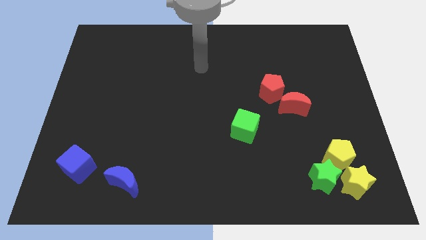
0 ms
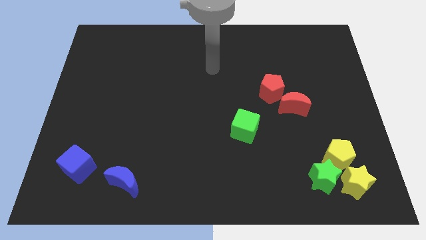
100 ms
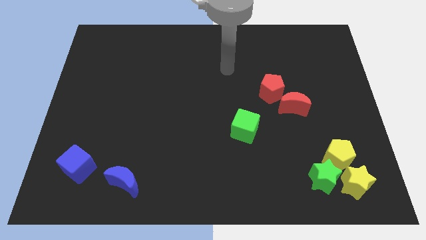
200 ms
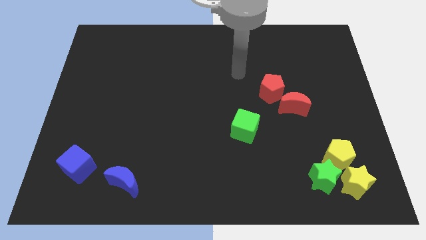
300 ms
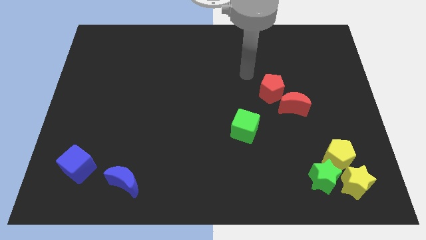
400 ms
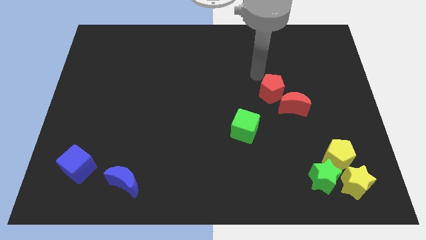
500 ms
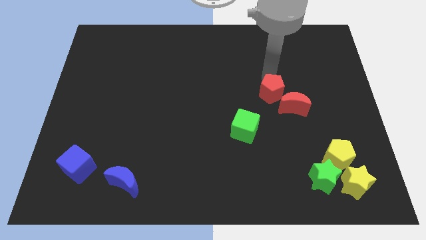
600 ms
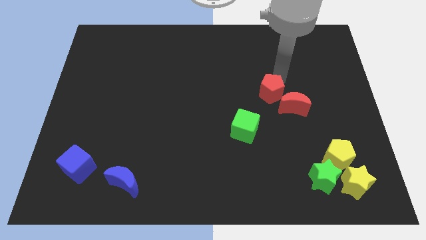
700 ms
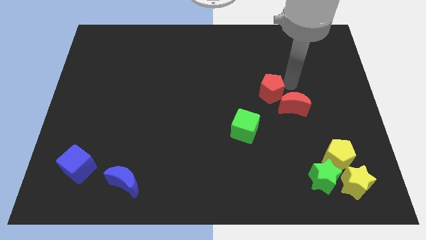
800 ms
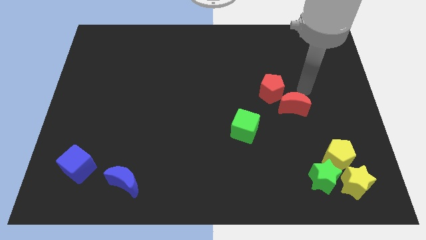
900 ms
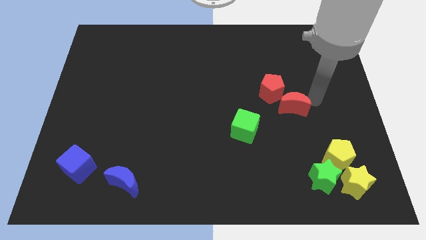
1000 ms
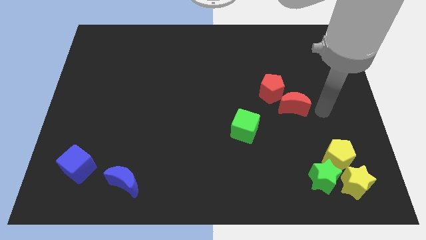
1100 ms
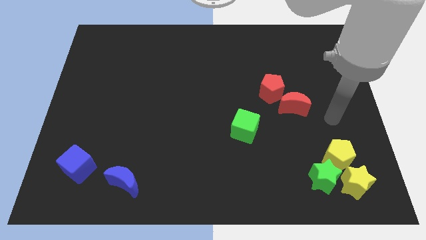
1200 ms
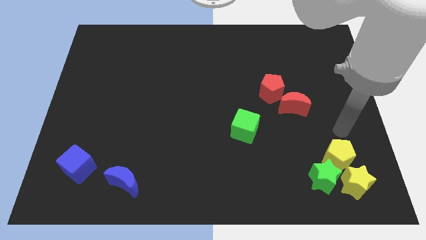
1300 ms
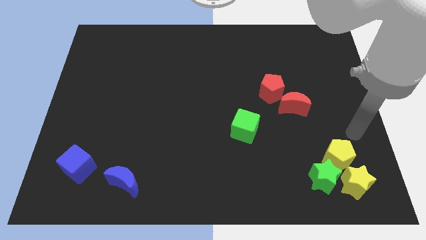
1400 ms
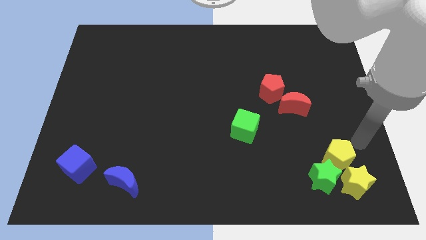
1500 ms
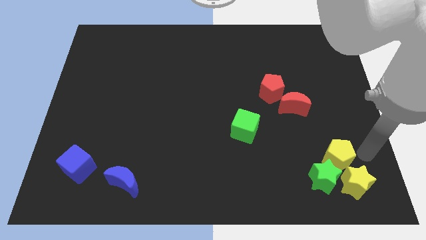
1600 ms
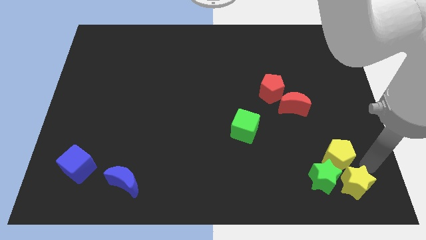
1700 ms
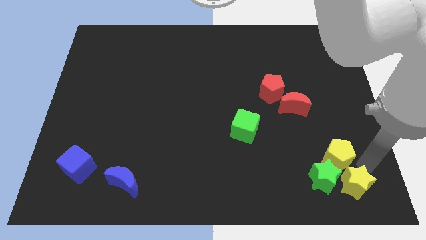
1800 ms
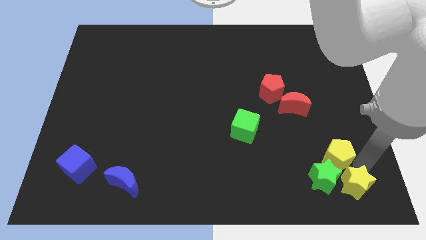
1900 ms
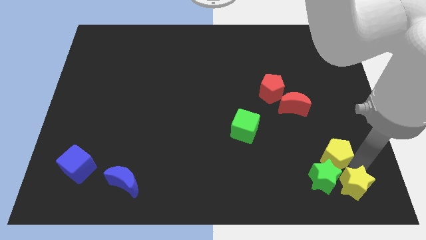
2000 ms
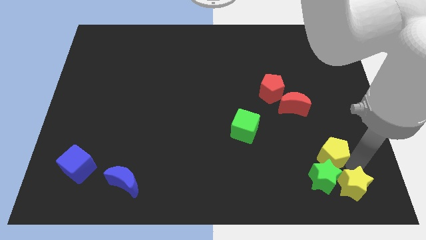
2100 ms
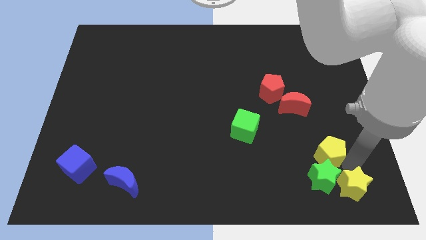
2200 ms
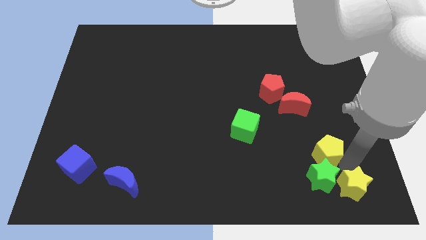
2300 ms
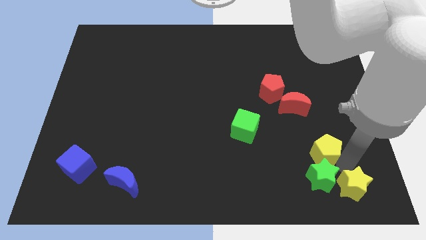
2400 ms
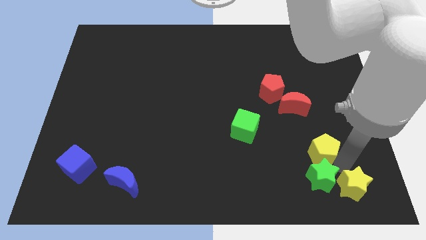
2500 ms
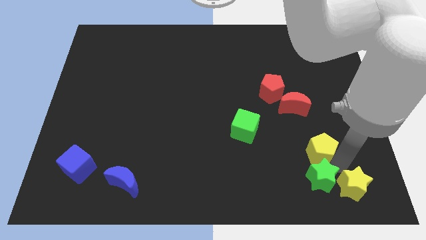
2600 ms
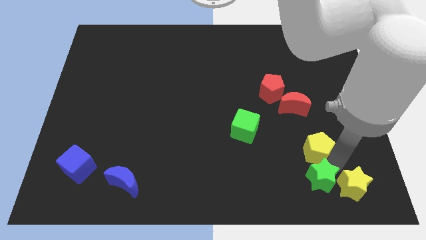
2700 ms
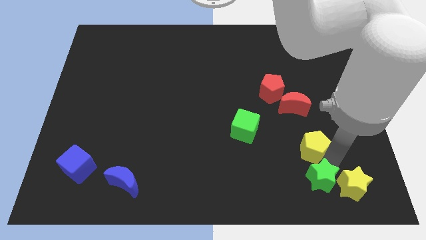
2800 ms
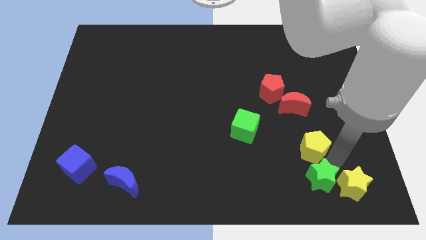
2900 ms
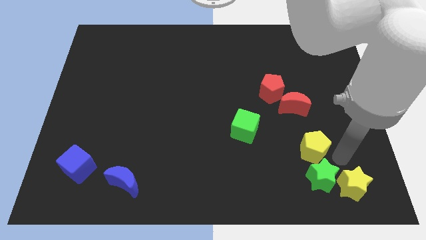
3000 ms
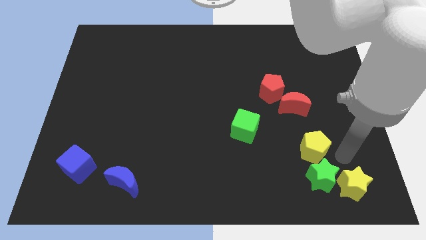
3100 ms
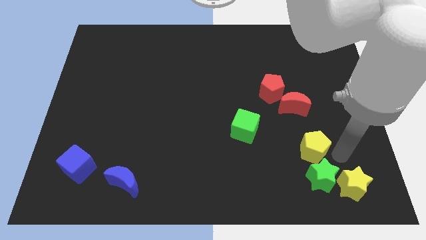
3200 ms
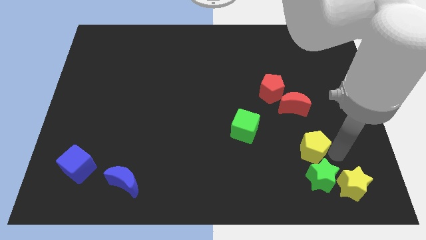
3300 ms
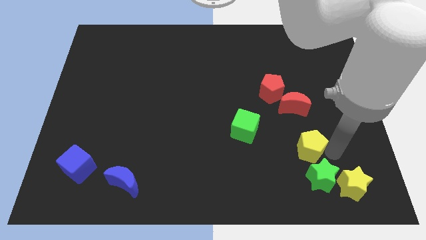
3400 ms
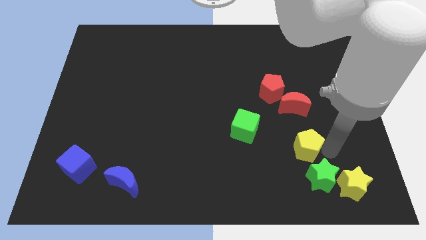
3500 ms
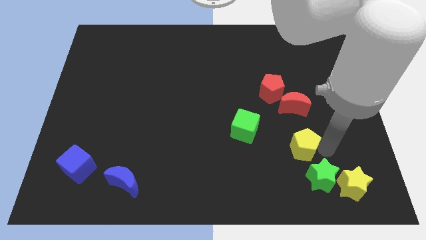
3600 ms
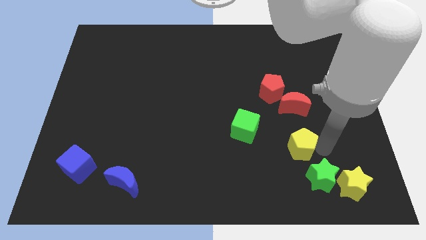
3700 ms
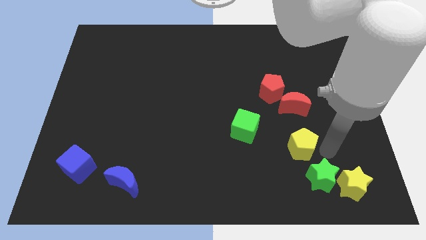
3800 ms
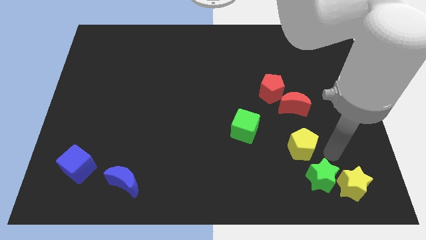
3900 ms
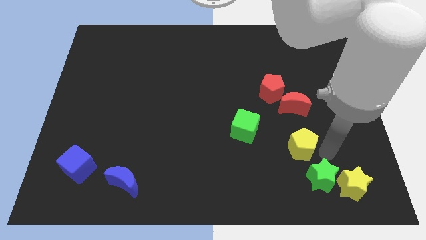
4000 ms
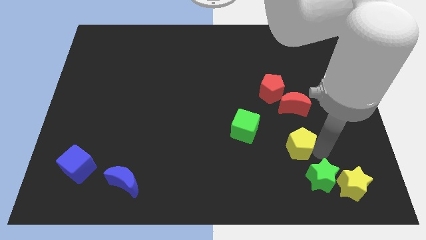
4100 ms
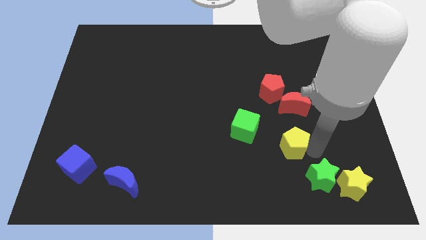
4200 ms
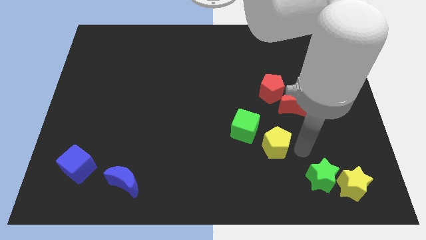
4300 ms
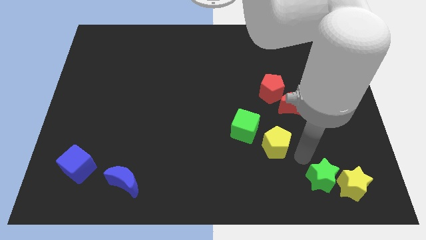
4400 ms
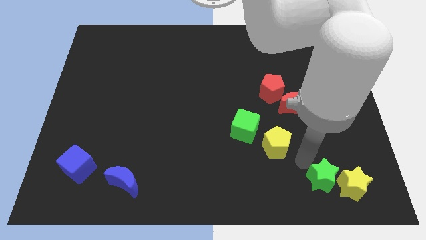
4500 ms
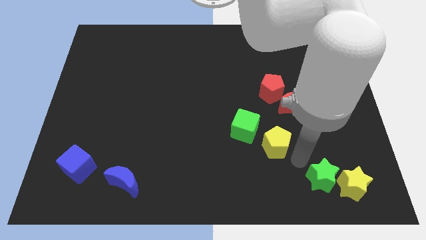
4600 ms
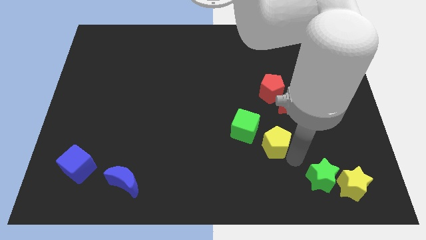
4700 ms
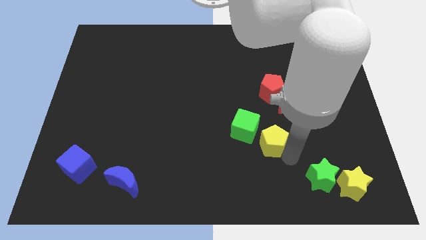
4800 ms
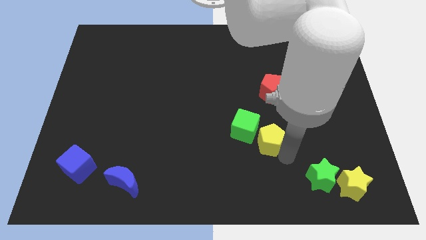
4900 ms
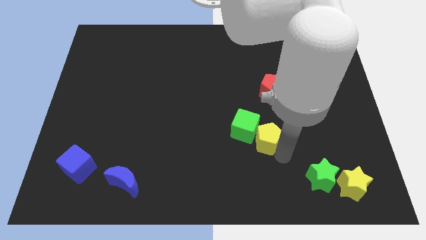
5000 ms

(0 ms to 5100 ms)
slide the yellow pentagon to the green cube

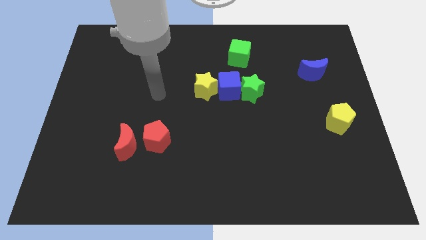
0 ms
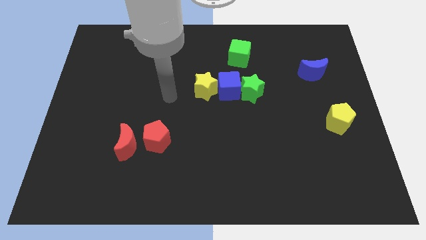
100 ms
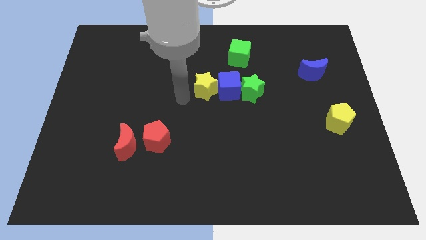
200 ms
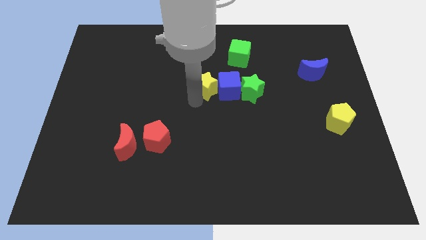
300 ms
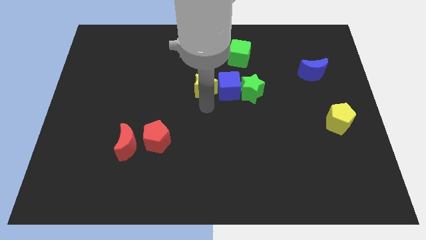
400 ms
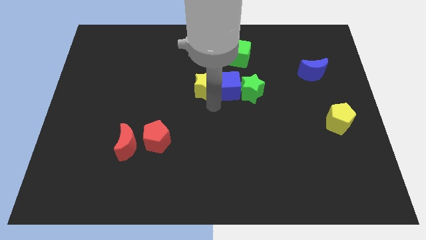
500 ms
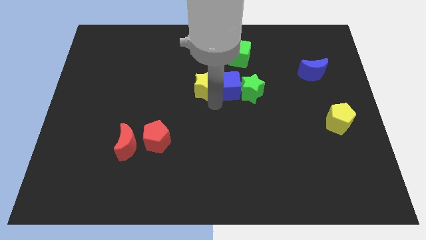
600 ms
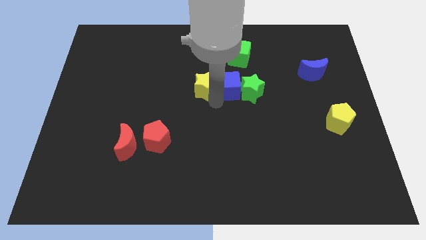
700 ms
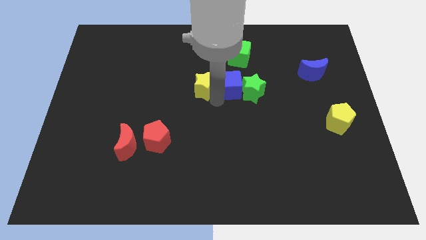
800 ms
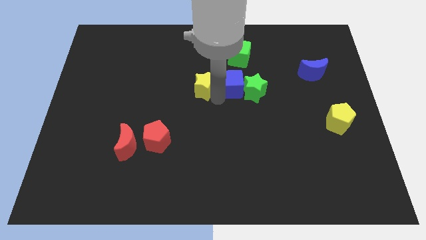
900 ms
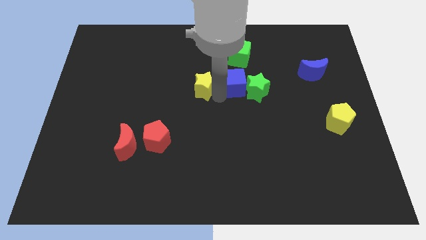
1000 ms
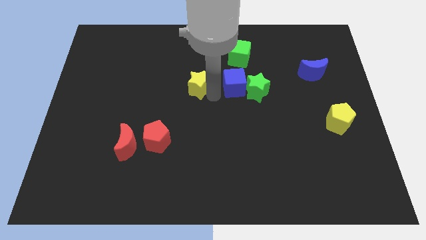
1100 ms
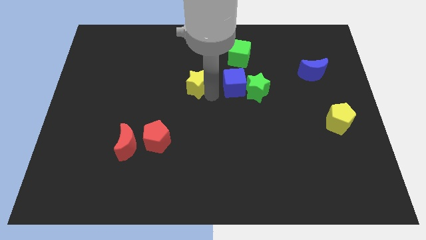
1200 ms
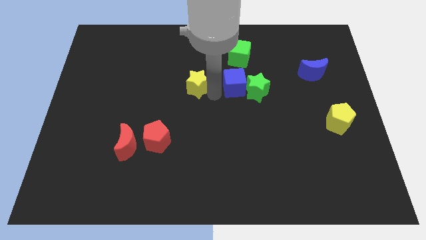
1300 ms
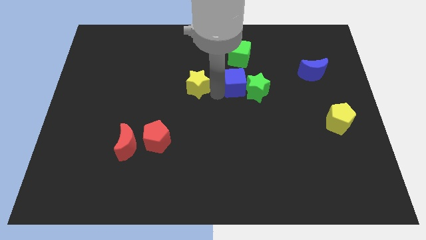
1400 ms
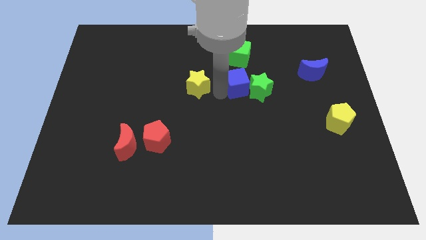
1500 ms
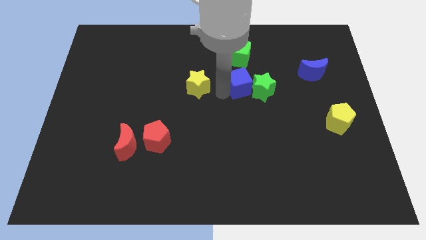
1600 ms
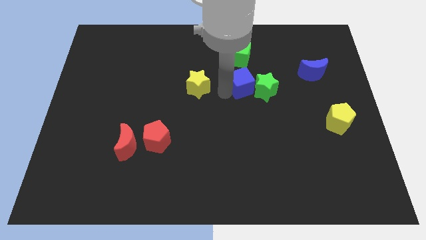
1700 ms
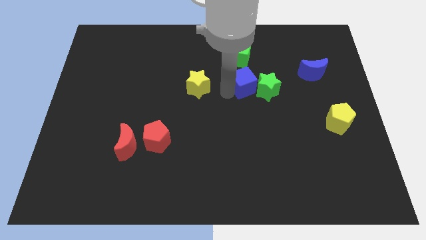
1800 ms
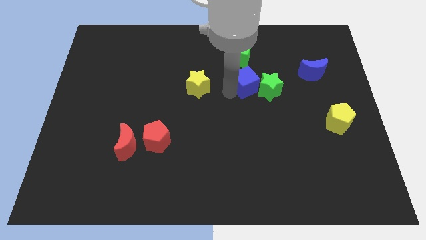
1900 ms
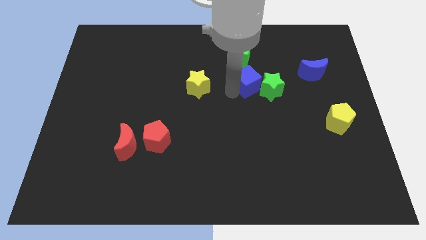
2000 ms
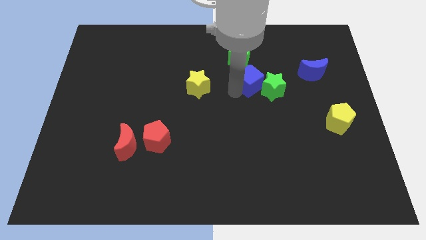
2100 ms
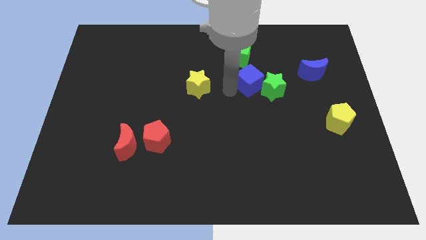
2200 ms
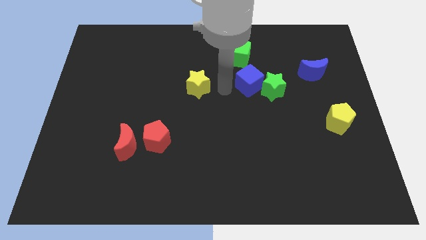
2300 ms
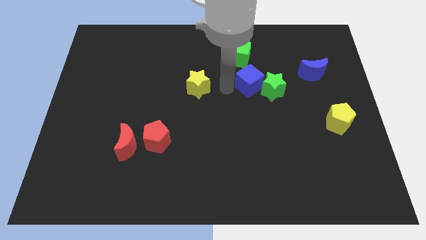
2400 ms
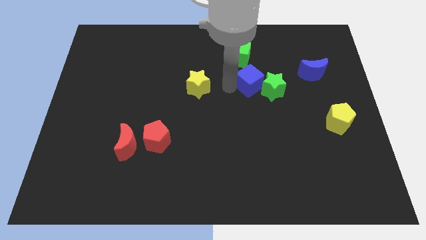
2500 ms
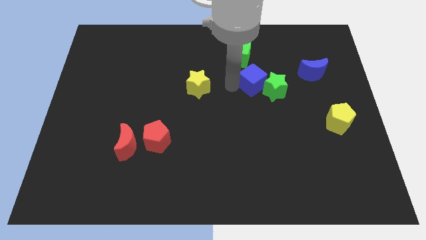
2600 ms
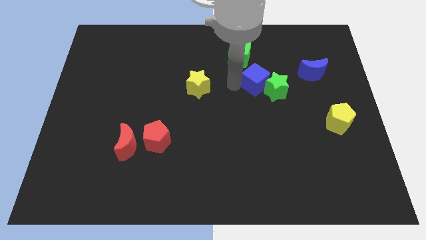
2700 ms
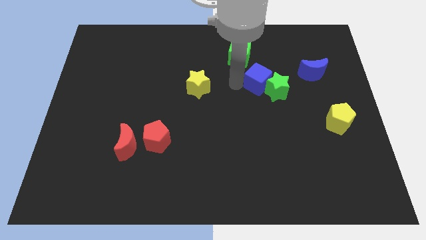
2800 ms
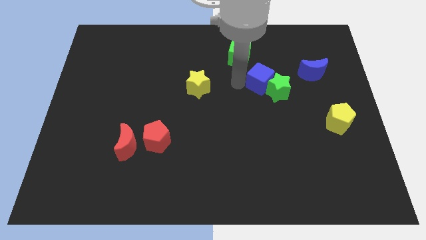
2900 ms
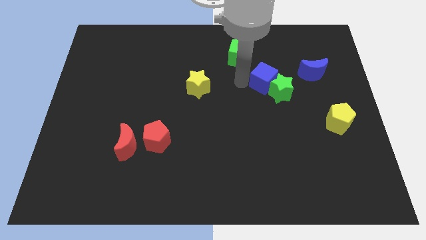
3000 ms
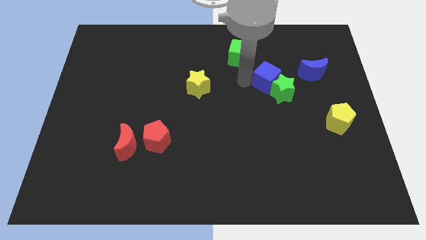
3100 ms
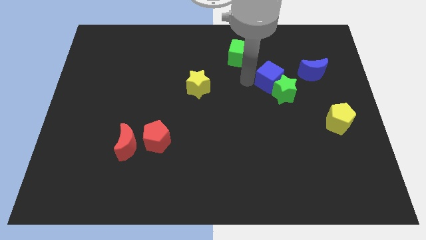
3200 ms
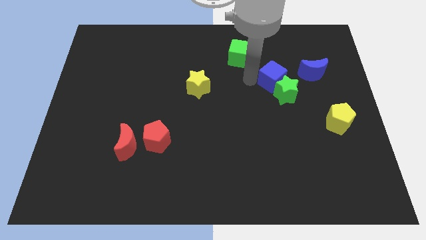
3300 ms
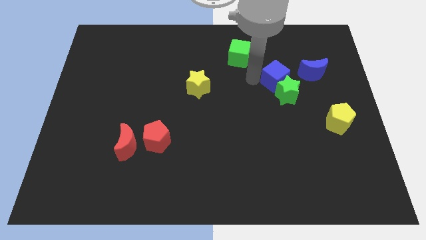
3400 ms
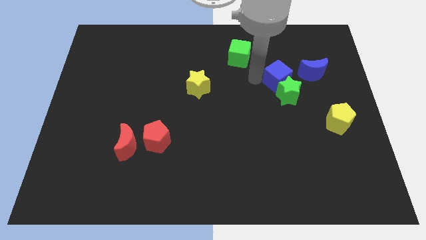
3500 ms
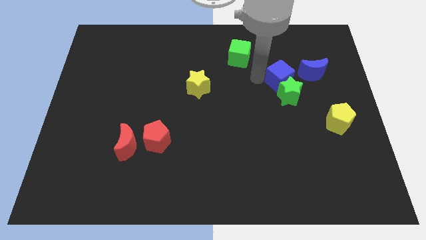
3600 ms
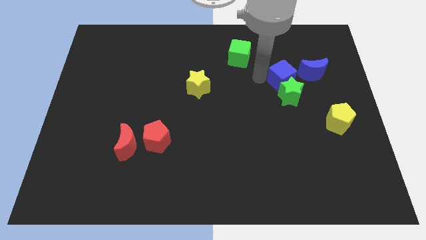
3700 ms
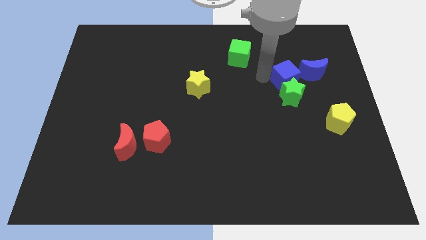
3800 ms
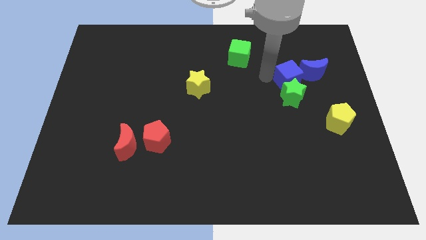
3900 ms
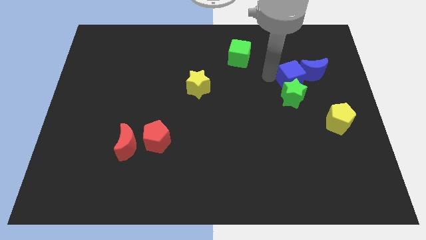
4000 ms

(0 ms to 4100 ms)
push the blue cube to the blue moon
